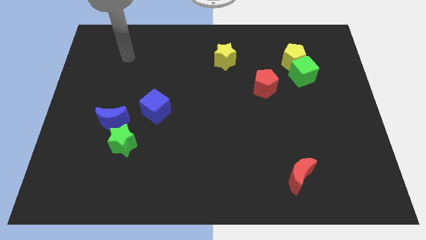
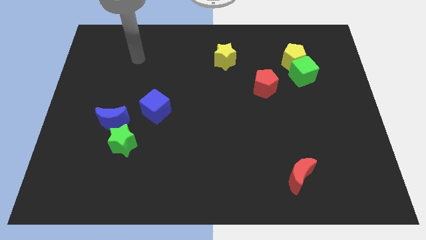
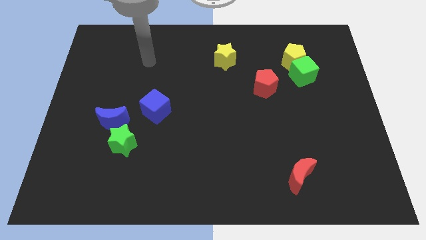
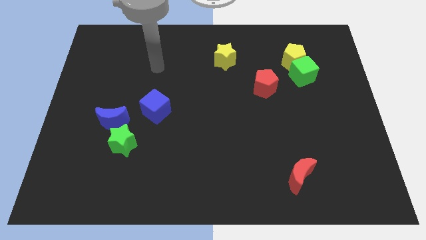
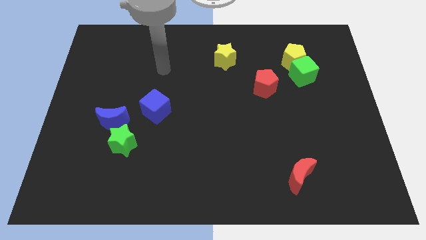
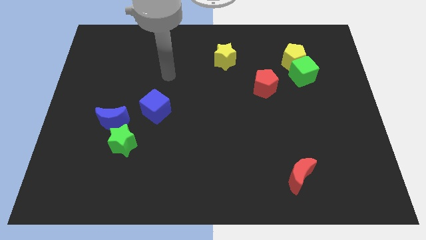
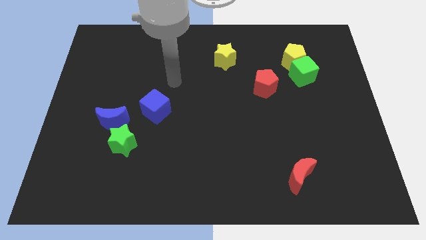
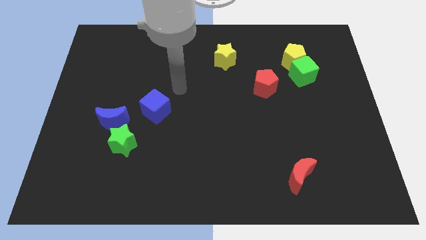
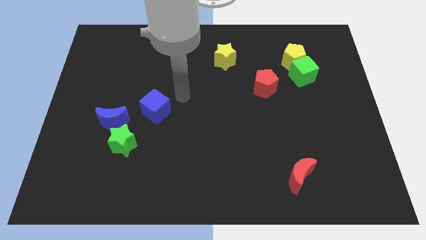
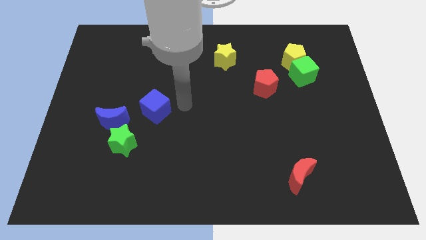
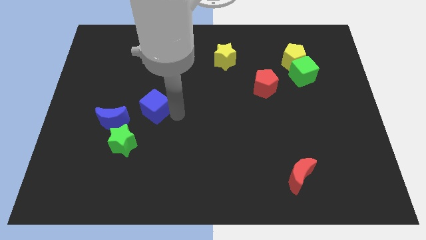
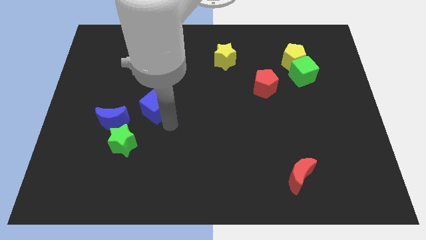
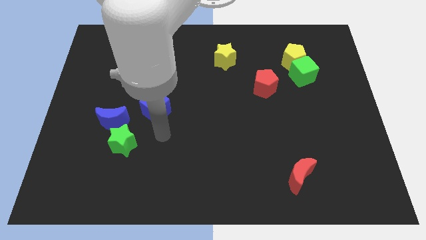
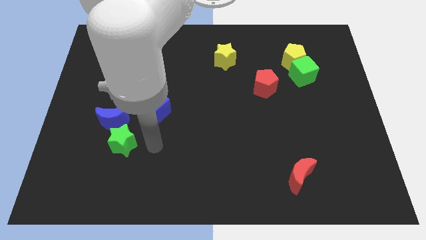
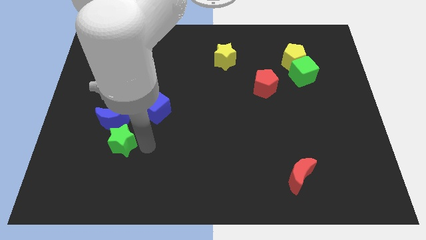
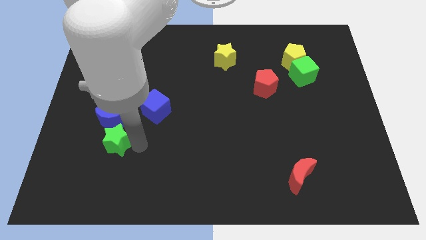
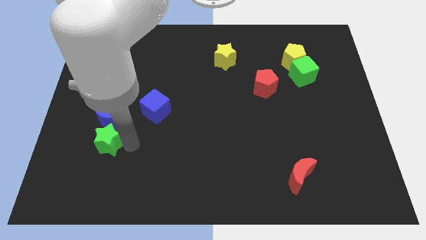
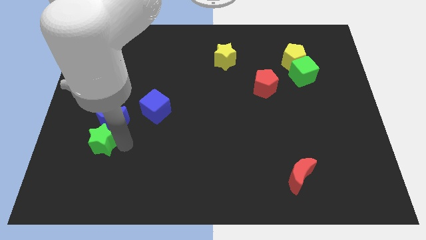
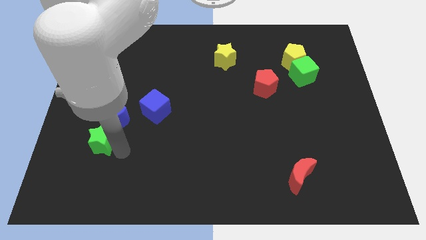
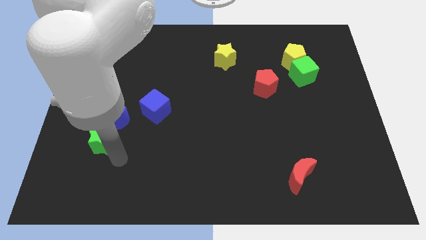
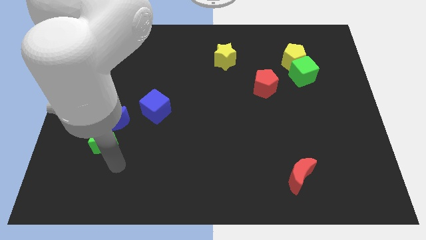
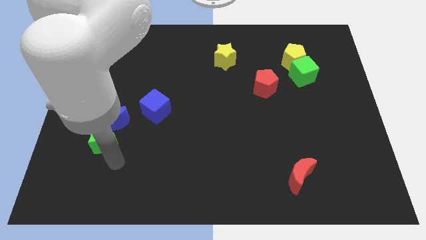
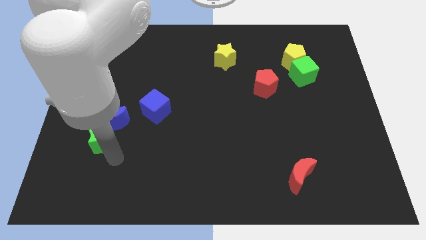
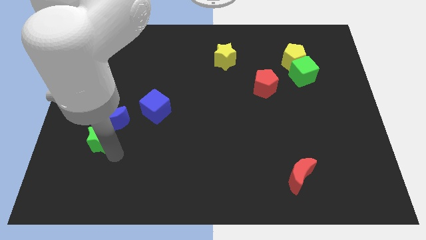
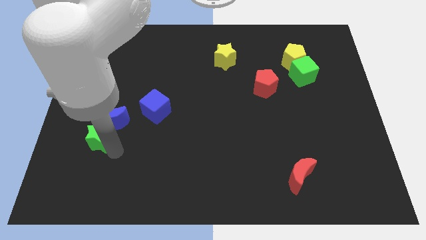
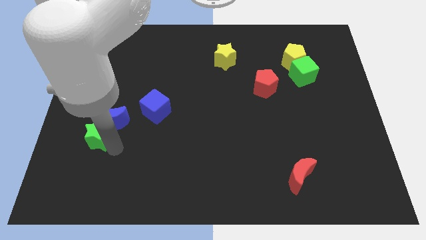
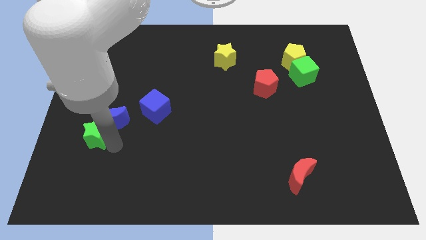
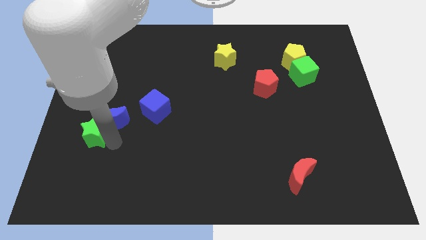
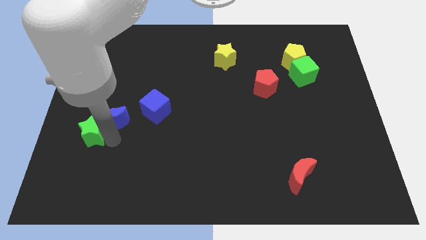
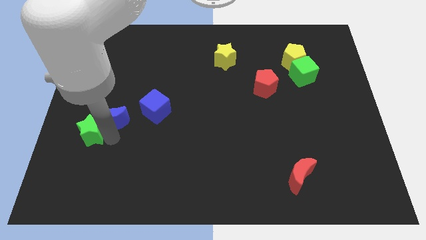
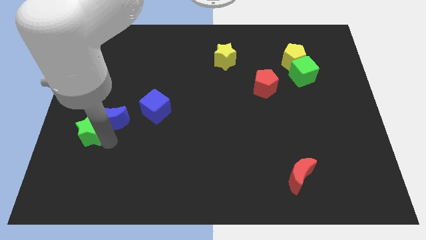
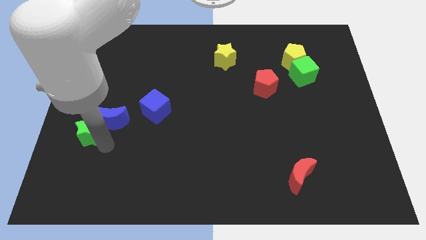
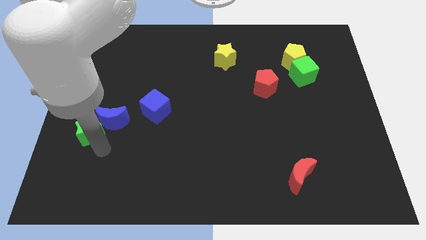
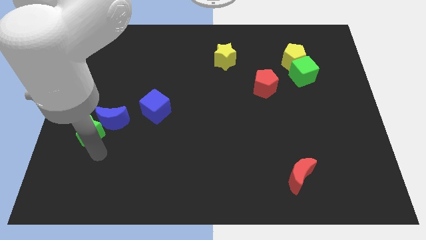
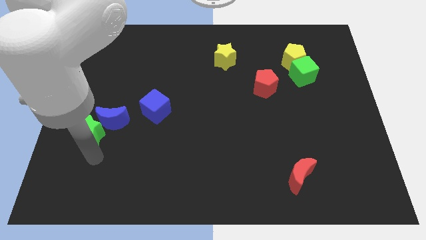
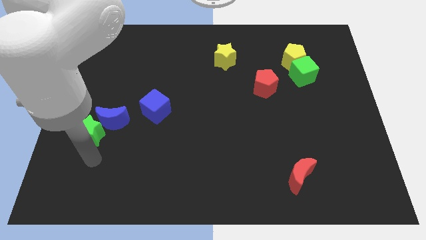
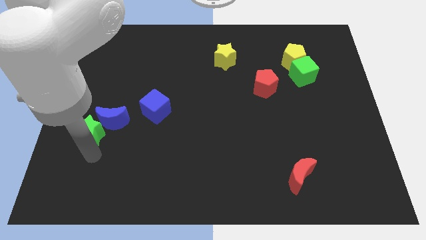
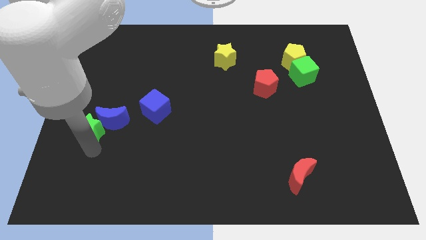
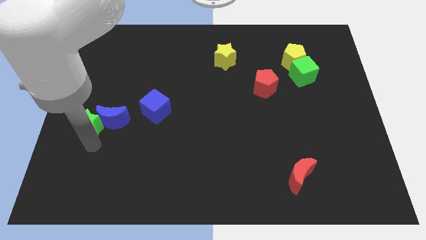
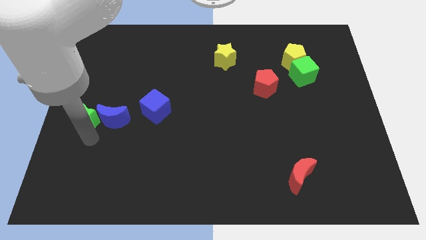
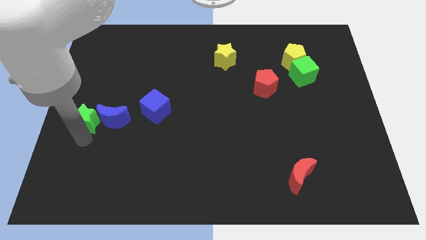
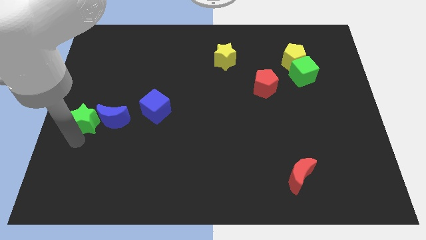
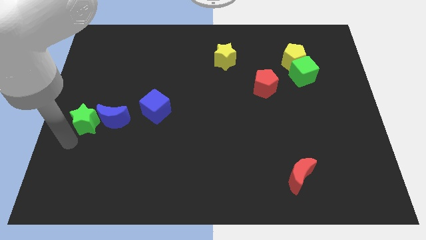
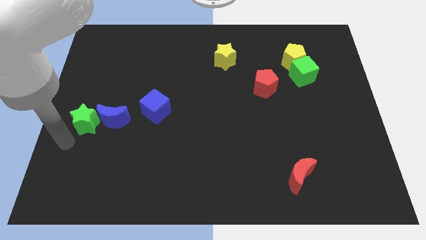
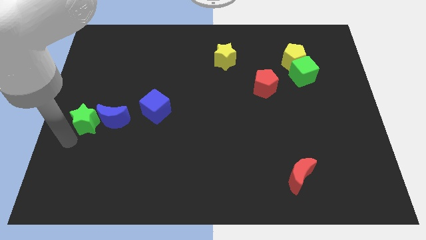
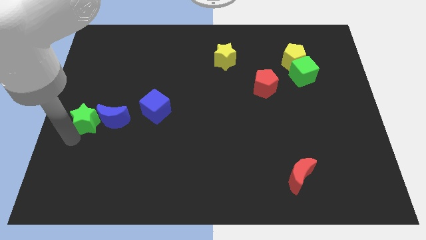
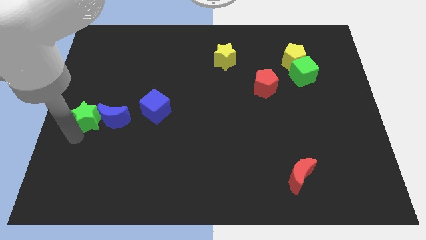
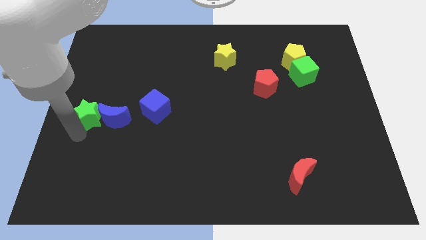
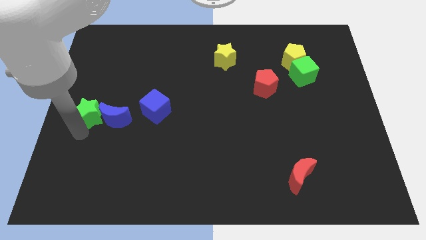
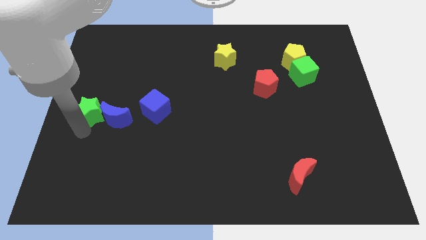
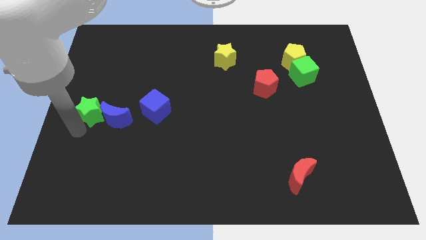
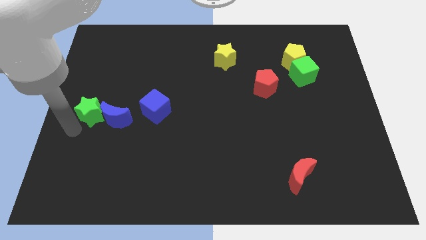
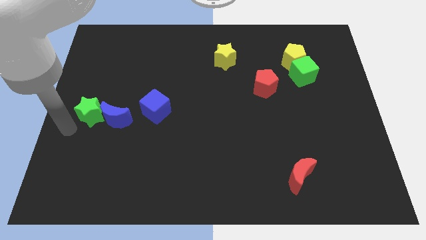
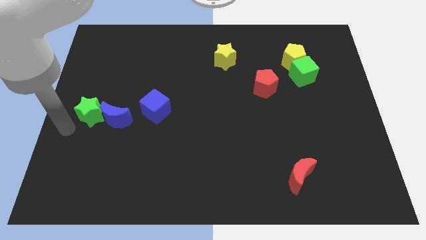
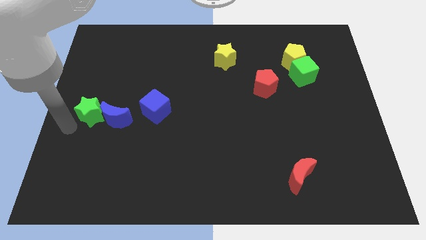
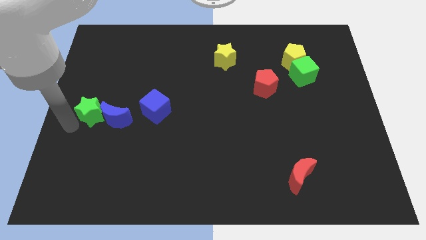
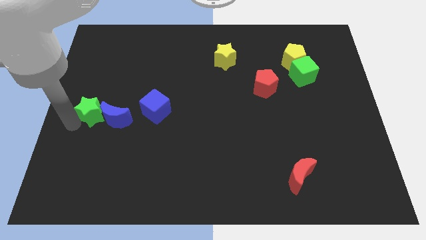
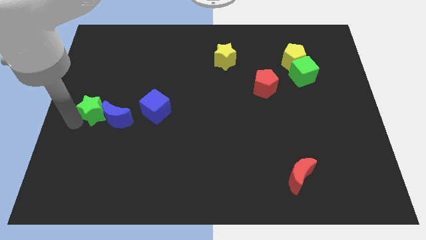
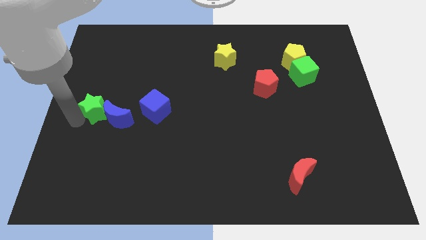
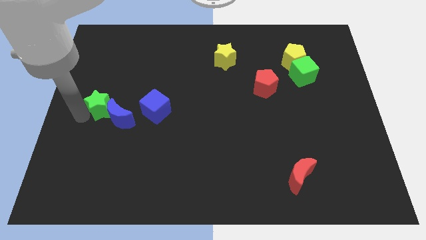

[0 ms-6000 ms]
push the green star up a bit

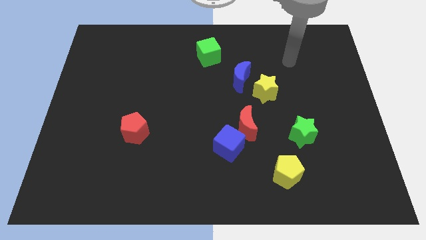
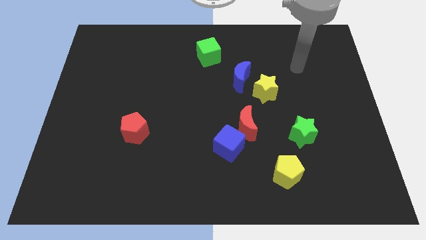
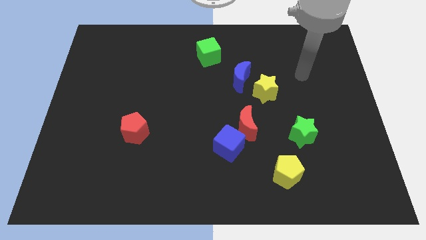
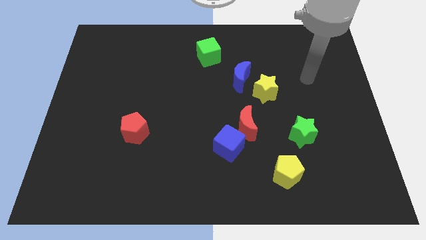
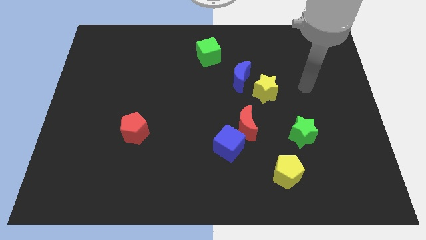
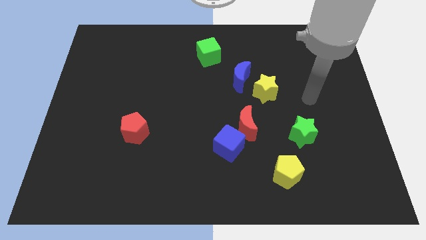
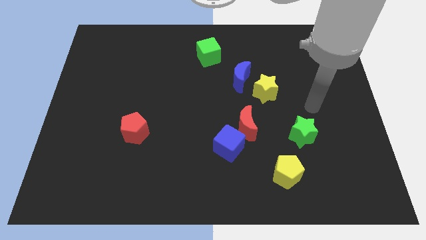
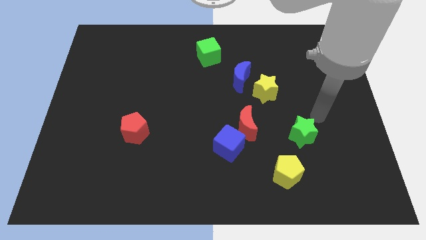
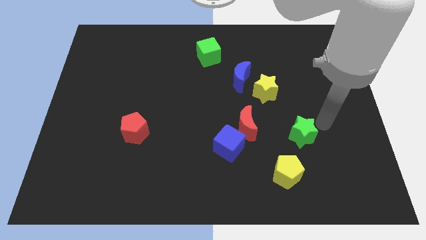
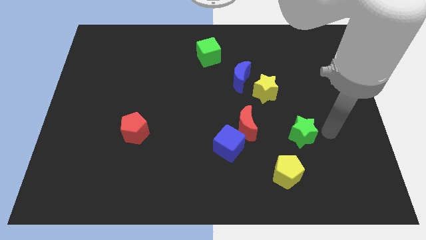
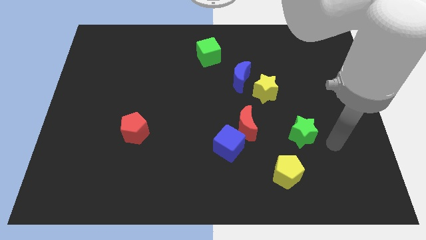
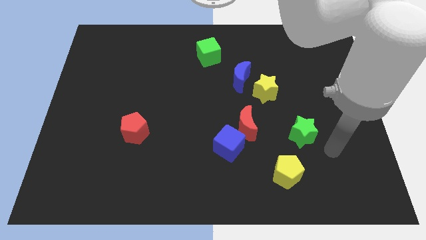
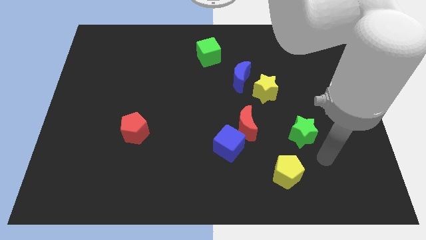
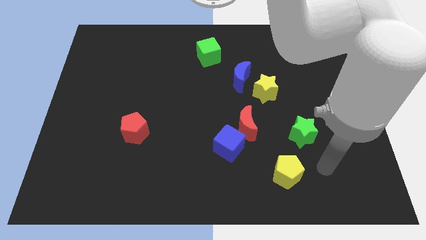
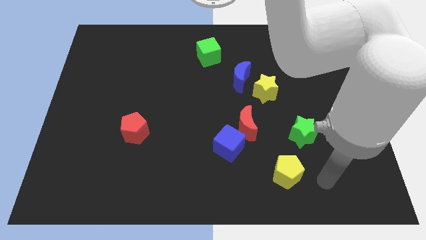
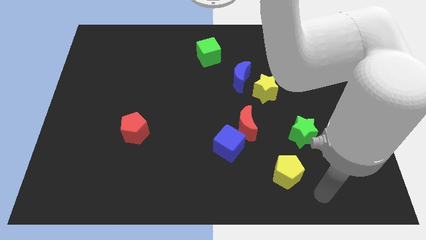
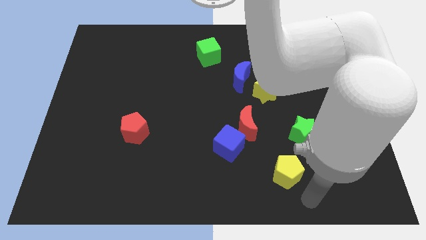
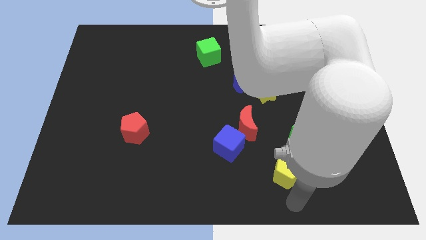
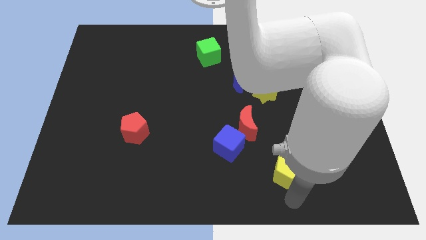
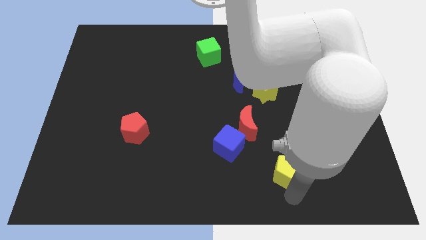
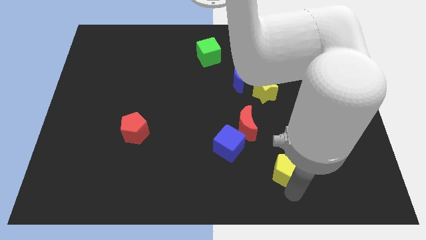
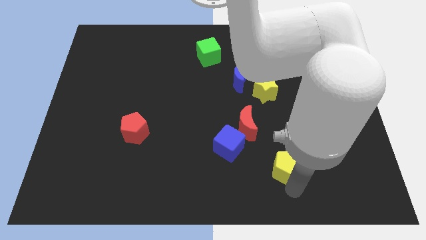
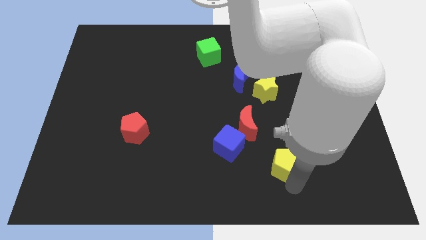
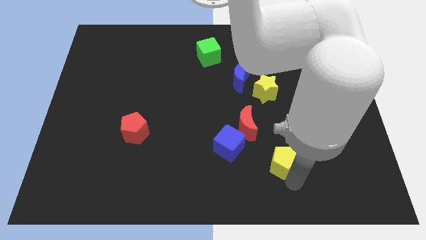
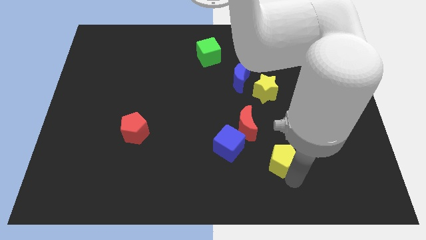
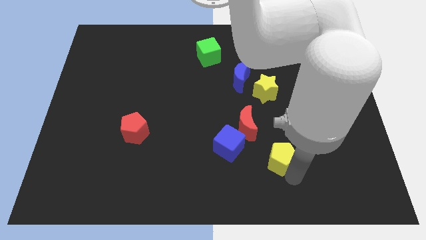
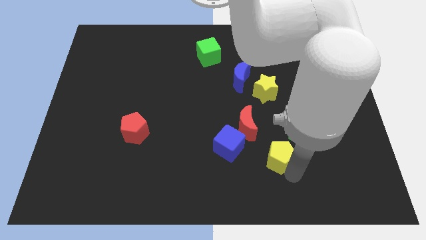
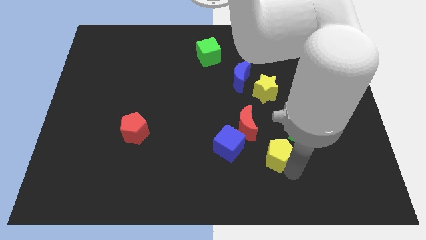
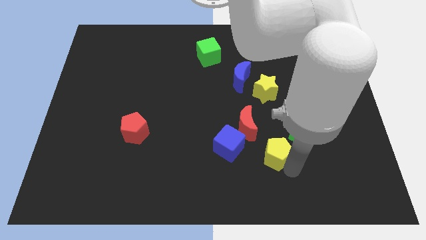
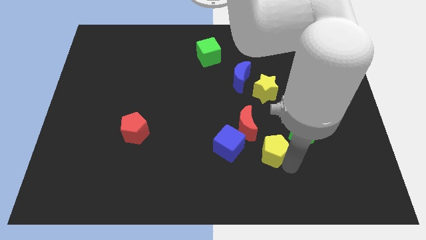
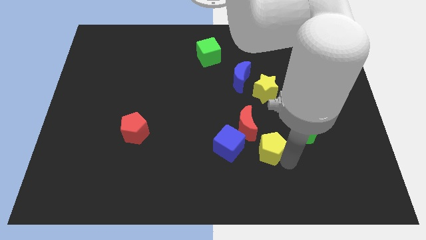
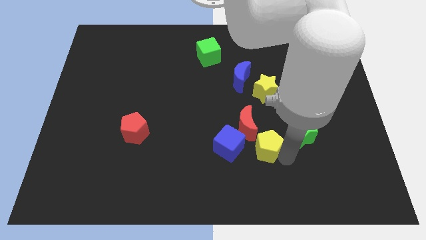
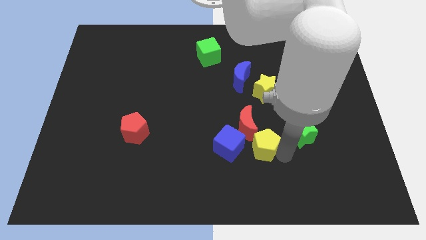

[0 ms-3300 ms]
push the yellow pentagon slightly upwards and left diagonally
